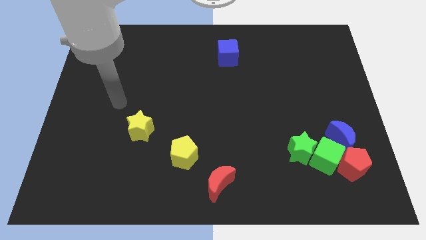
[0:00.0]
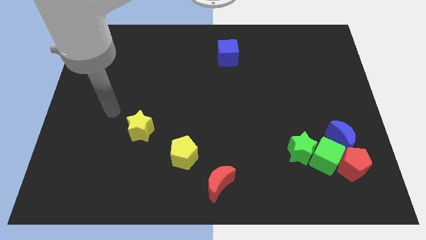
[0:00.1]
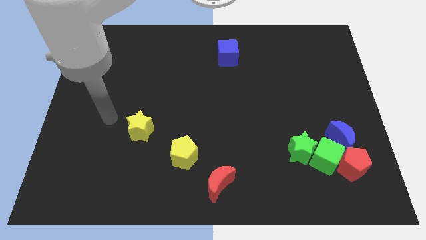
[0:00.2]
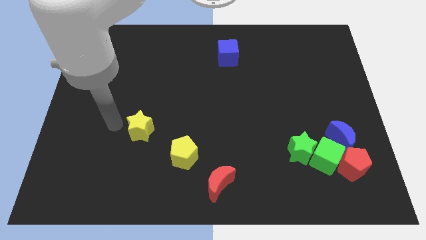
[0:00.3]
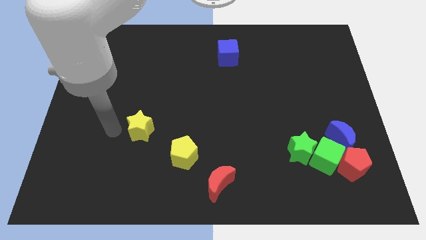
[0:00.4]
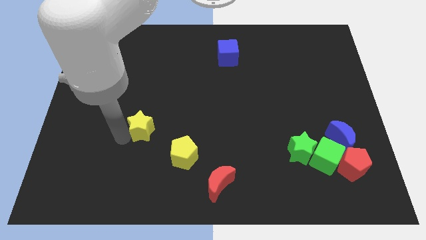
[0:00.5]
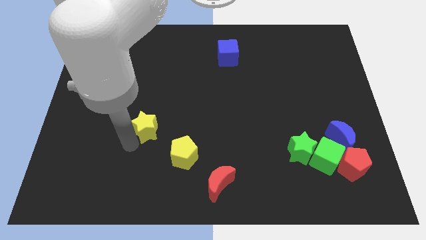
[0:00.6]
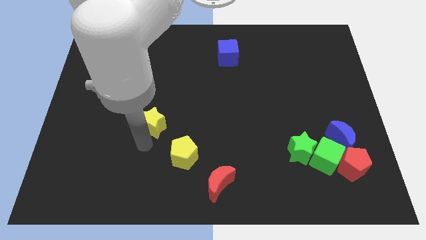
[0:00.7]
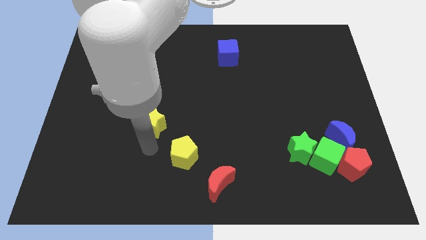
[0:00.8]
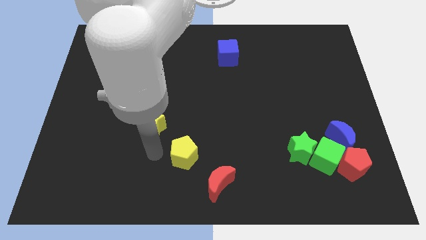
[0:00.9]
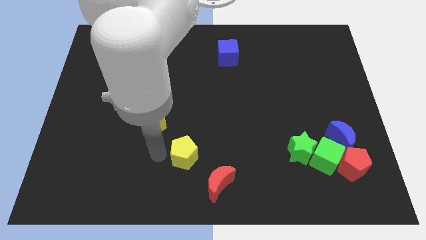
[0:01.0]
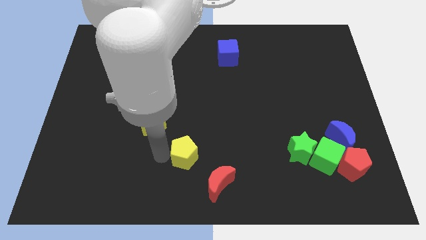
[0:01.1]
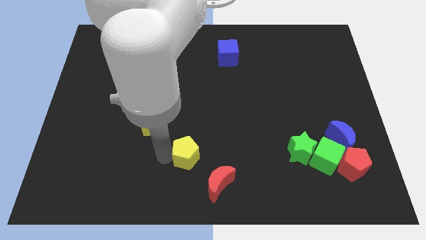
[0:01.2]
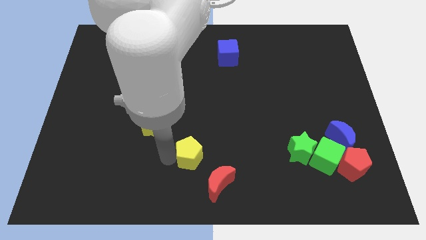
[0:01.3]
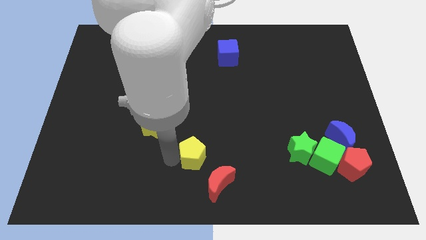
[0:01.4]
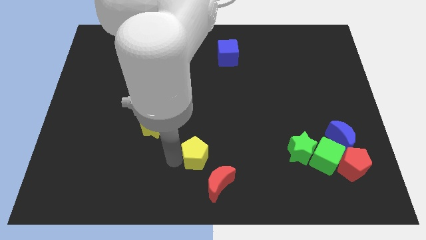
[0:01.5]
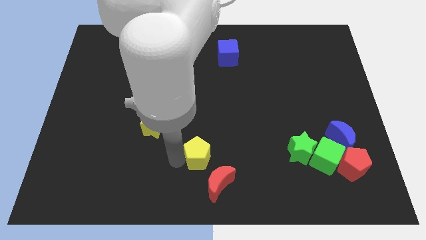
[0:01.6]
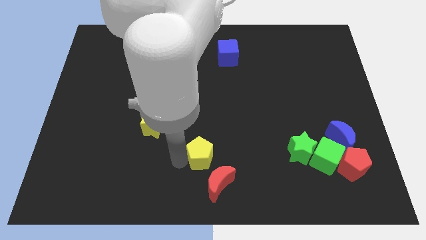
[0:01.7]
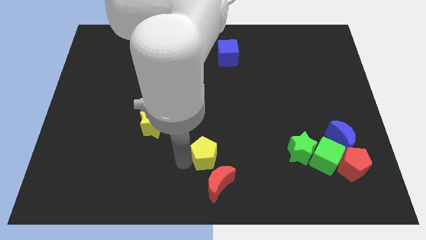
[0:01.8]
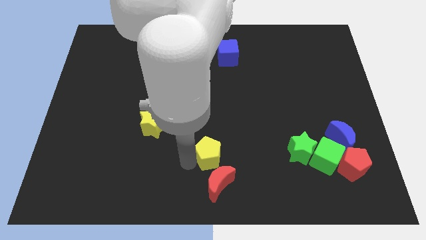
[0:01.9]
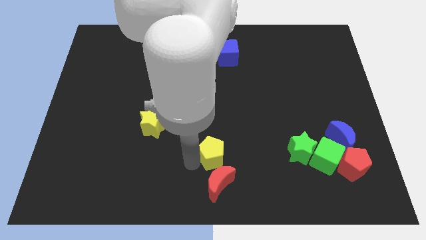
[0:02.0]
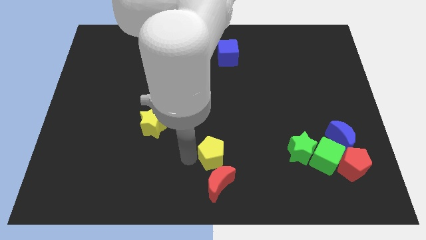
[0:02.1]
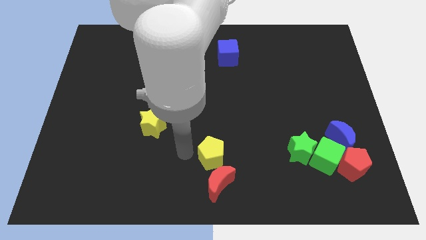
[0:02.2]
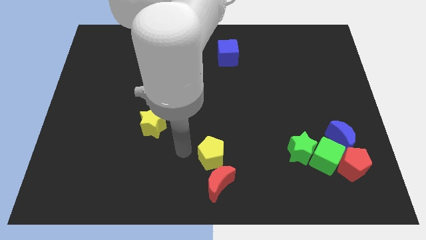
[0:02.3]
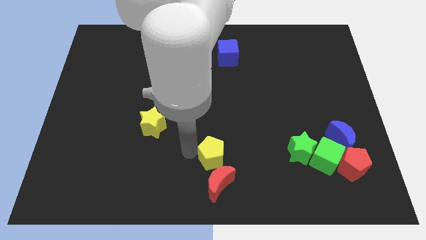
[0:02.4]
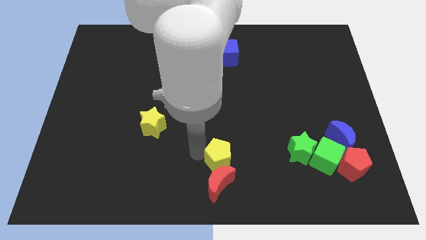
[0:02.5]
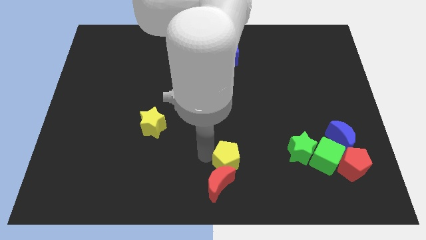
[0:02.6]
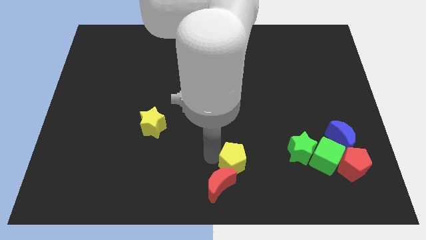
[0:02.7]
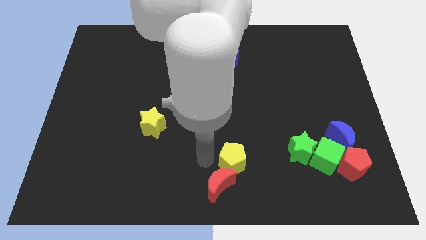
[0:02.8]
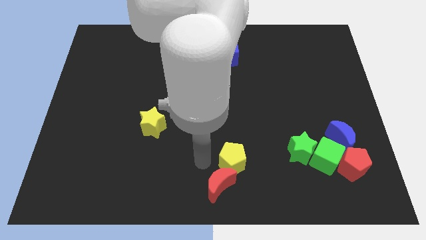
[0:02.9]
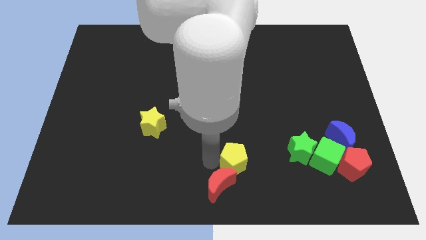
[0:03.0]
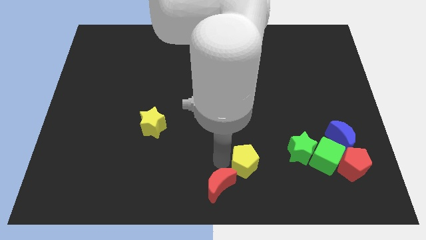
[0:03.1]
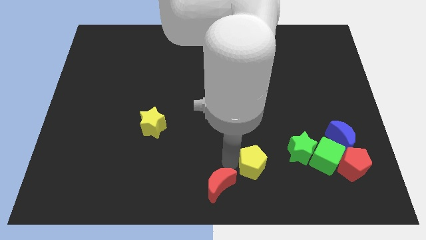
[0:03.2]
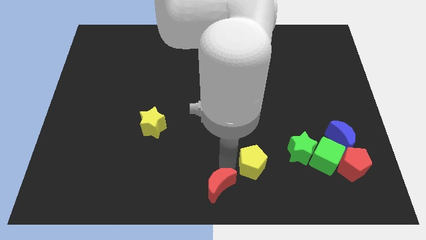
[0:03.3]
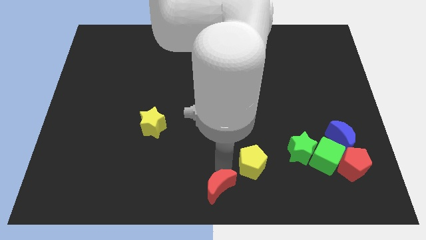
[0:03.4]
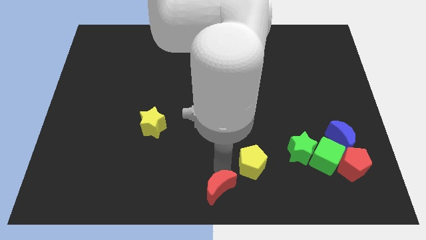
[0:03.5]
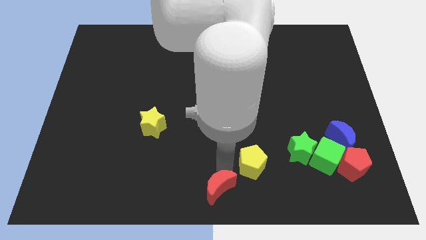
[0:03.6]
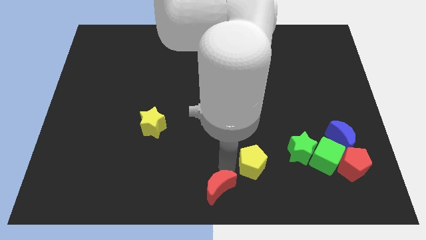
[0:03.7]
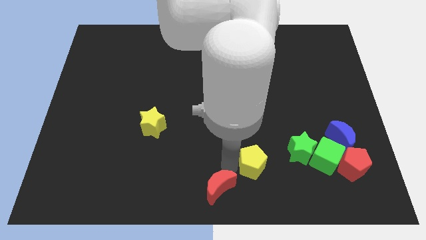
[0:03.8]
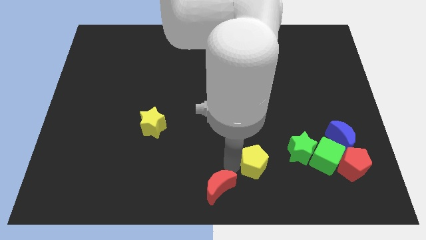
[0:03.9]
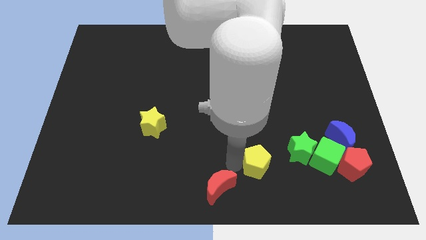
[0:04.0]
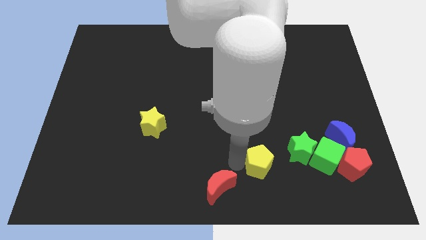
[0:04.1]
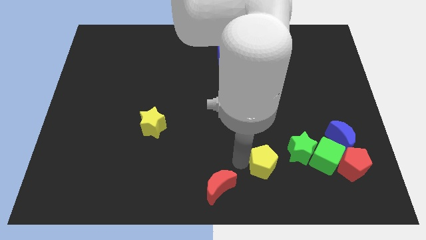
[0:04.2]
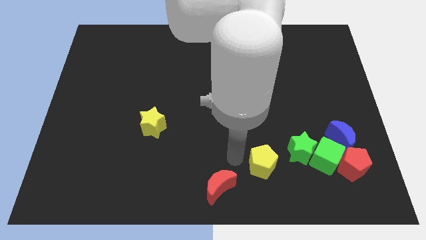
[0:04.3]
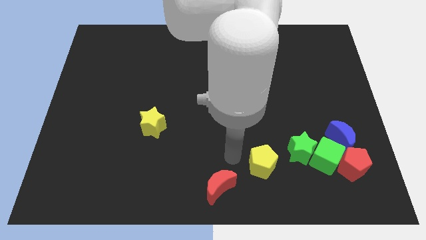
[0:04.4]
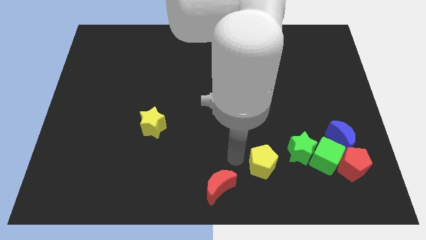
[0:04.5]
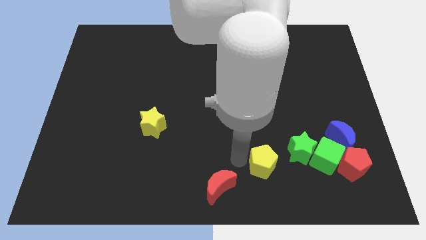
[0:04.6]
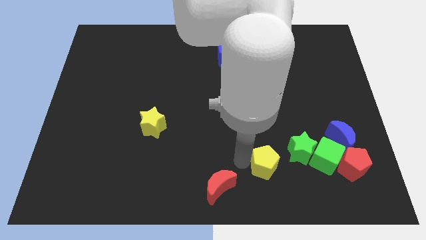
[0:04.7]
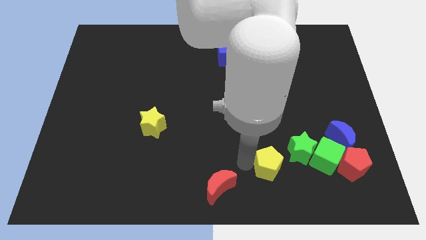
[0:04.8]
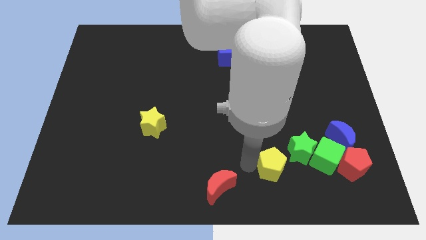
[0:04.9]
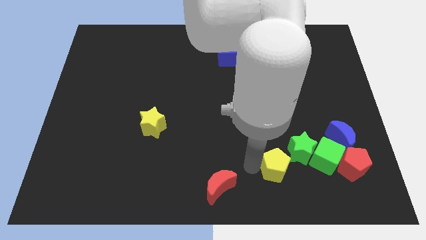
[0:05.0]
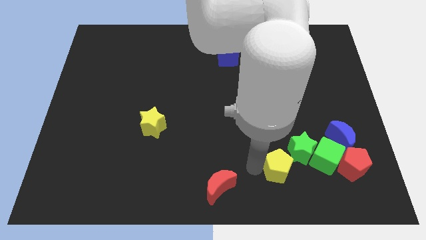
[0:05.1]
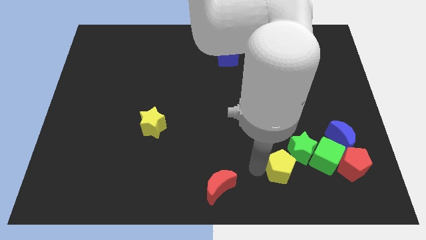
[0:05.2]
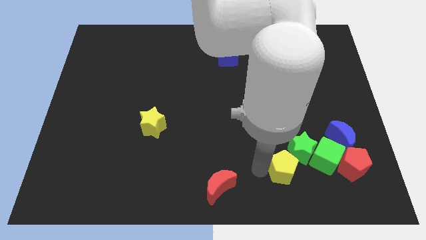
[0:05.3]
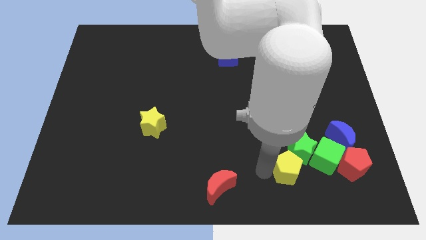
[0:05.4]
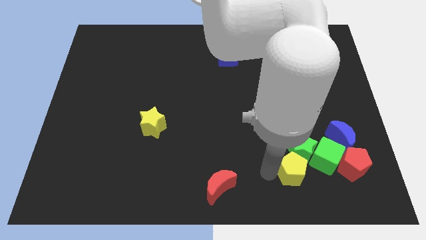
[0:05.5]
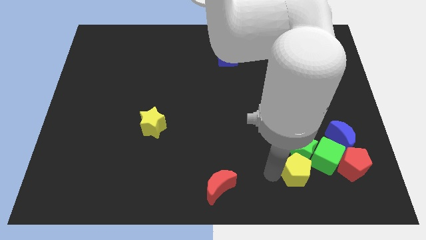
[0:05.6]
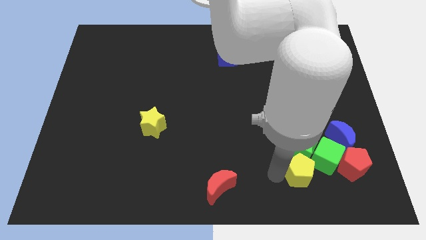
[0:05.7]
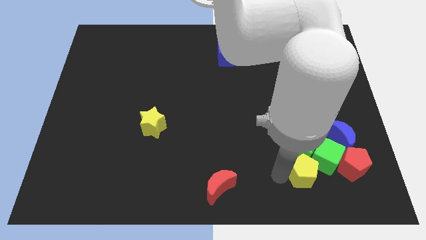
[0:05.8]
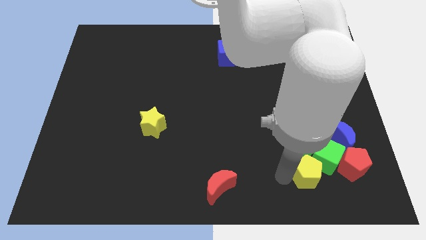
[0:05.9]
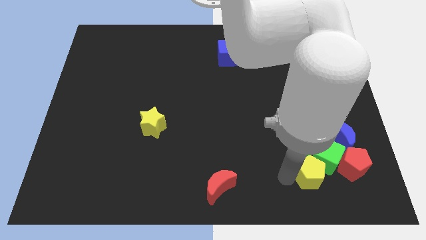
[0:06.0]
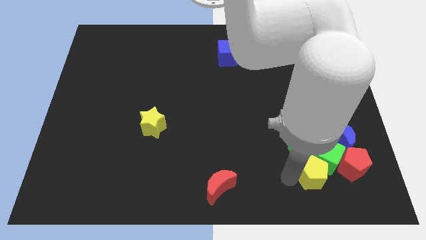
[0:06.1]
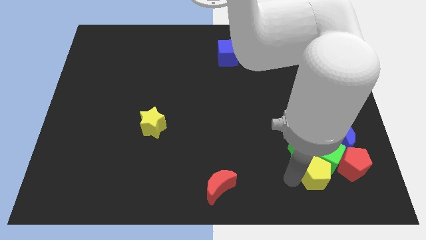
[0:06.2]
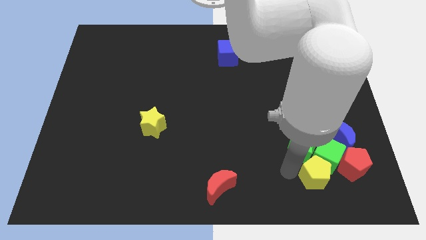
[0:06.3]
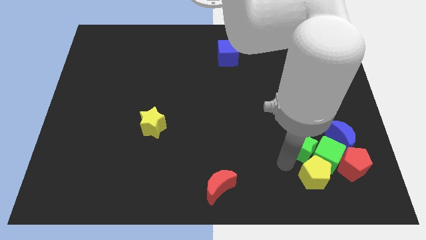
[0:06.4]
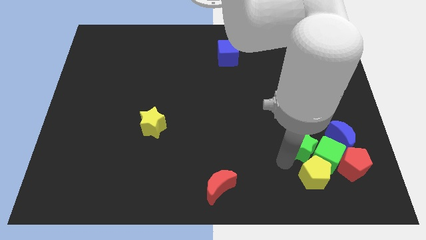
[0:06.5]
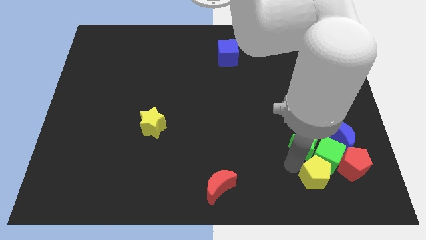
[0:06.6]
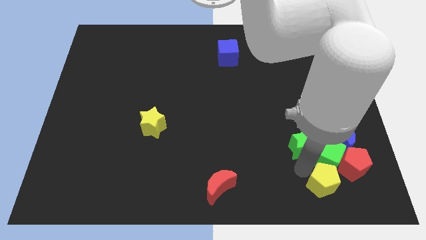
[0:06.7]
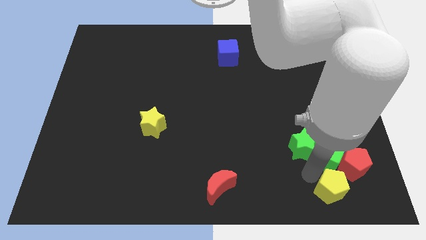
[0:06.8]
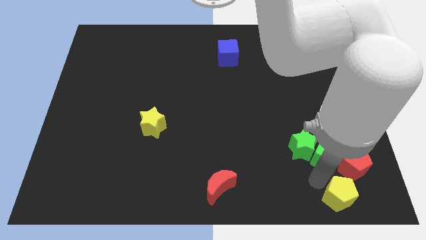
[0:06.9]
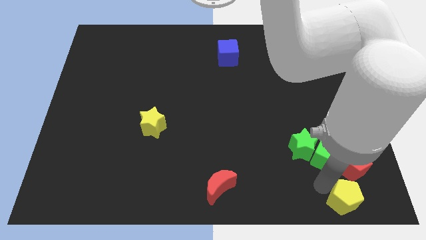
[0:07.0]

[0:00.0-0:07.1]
put the yellow pentagon to the lower right corner
